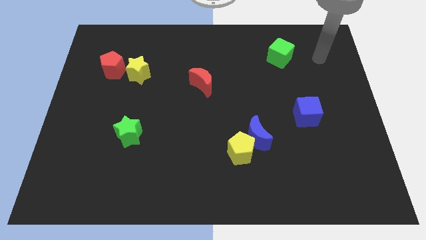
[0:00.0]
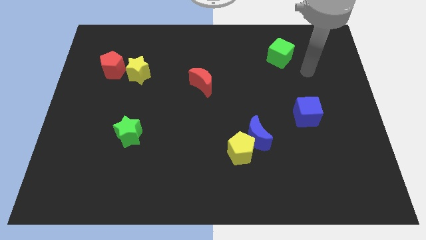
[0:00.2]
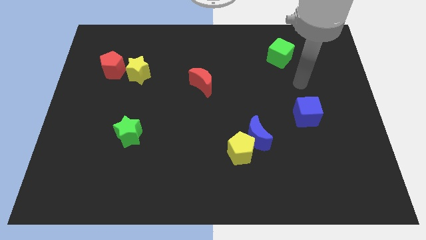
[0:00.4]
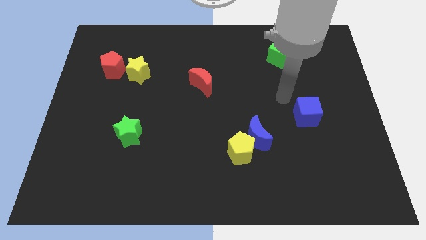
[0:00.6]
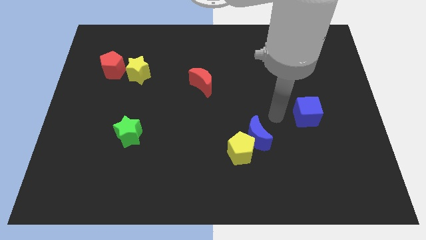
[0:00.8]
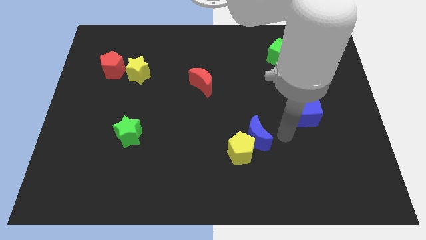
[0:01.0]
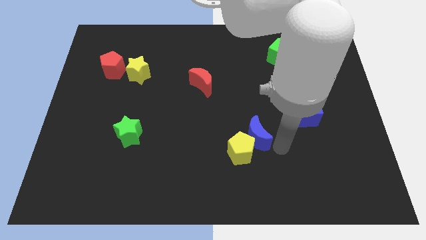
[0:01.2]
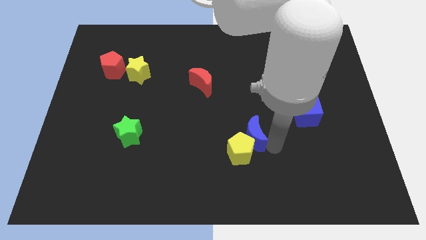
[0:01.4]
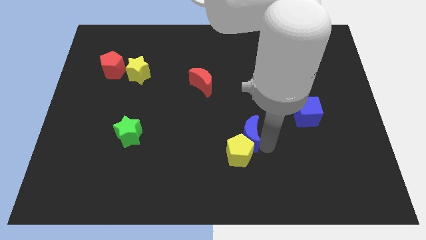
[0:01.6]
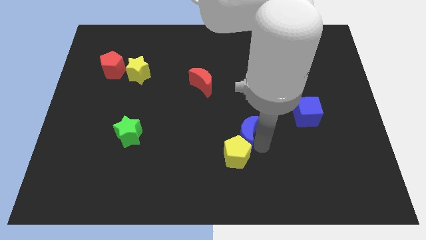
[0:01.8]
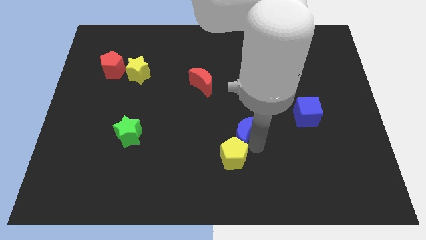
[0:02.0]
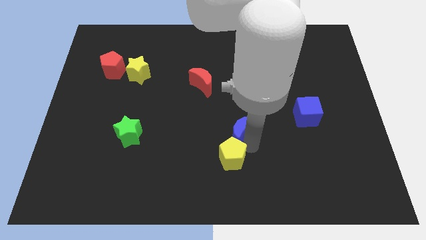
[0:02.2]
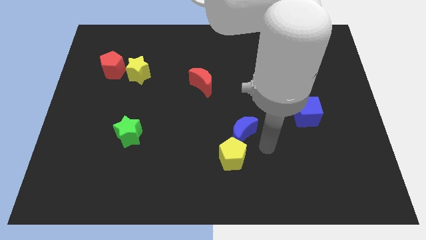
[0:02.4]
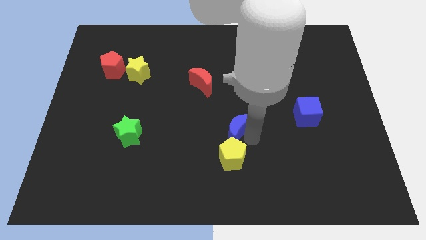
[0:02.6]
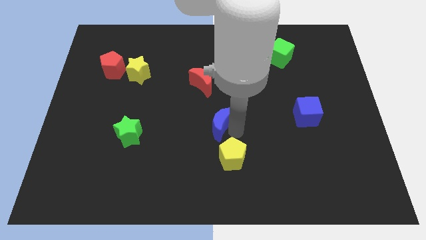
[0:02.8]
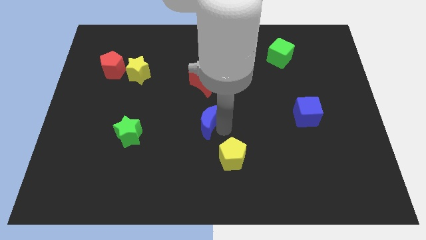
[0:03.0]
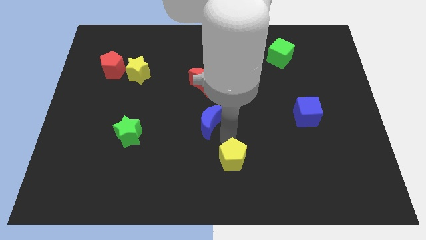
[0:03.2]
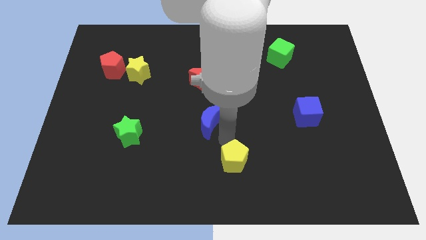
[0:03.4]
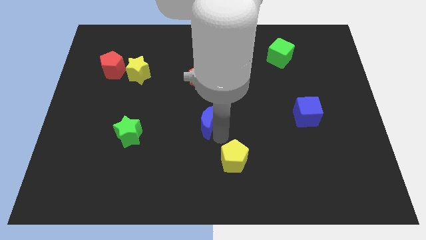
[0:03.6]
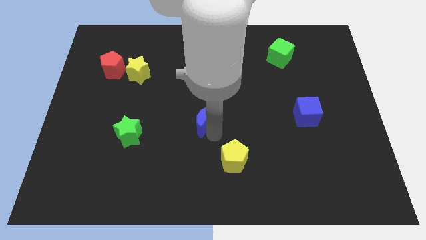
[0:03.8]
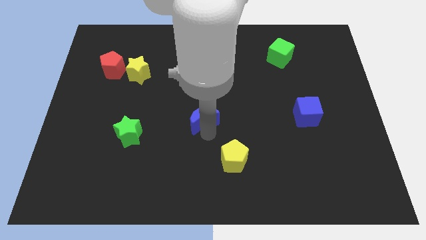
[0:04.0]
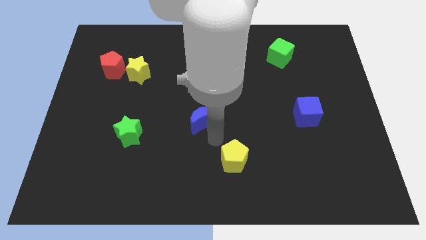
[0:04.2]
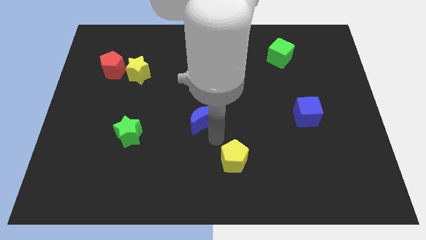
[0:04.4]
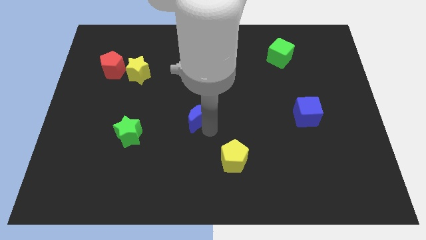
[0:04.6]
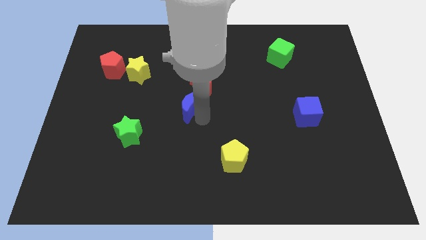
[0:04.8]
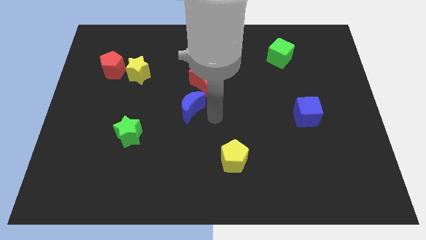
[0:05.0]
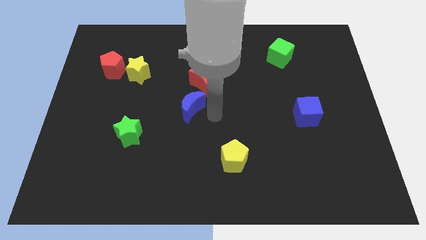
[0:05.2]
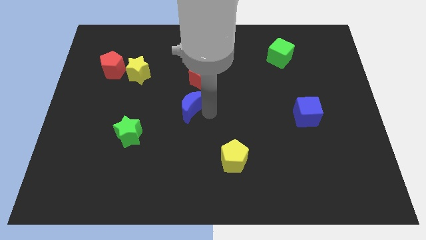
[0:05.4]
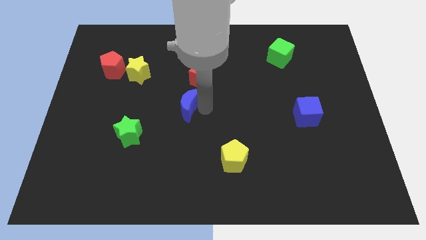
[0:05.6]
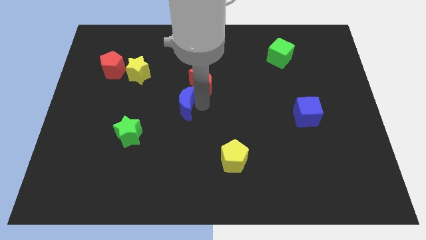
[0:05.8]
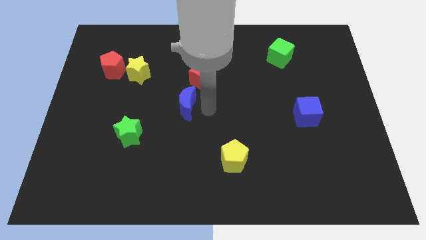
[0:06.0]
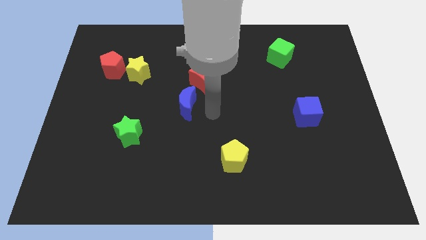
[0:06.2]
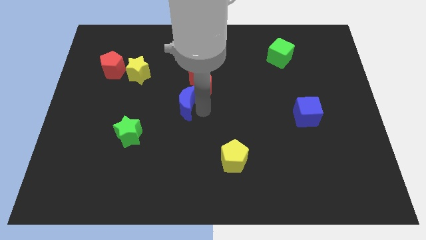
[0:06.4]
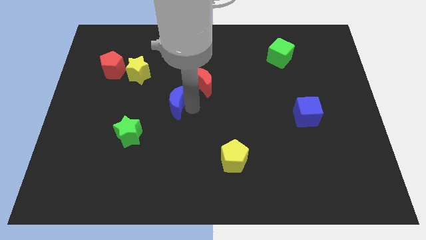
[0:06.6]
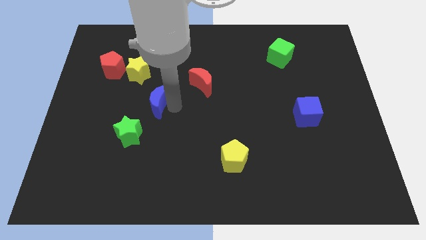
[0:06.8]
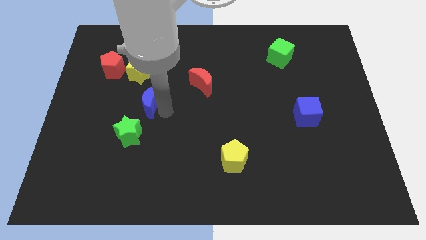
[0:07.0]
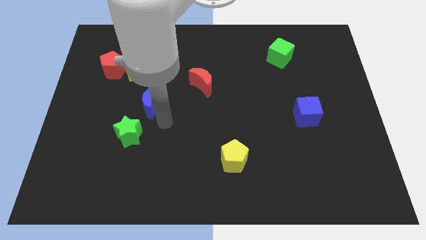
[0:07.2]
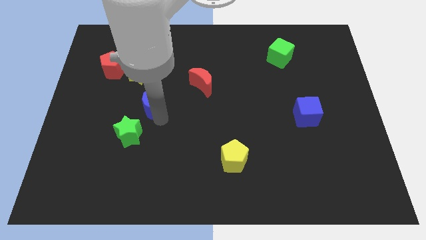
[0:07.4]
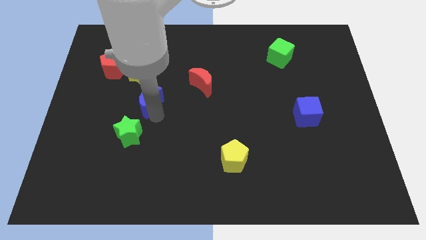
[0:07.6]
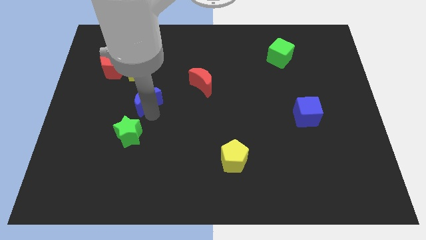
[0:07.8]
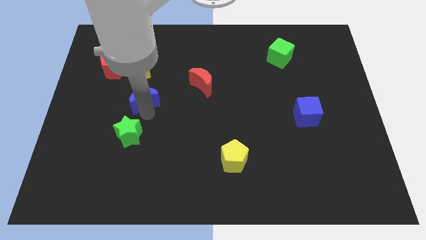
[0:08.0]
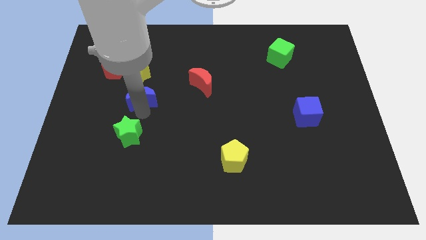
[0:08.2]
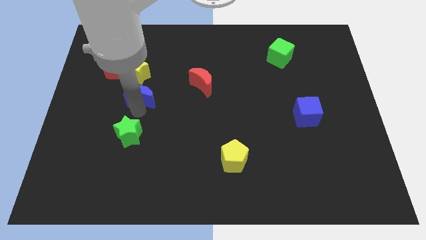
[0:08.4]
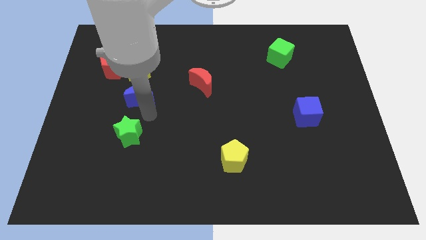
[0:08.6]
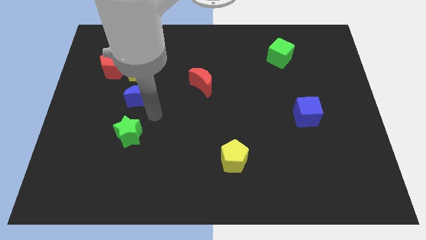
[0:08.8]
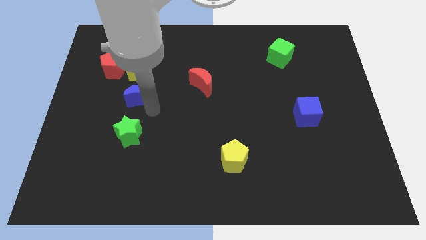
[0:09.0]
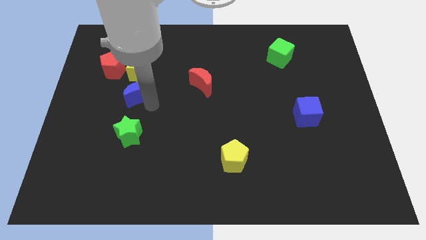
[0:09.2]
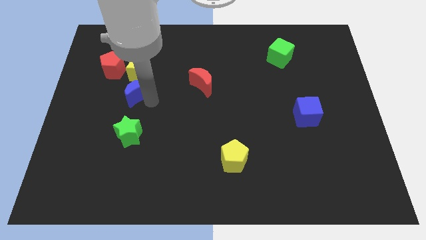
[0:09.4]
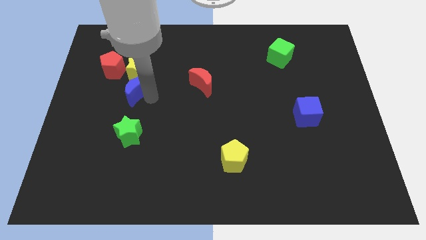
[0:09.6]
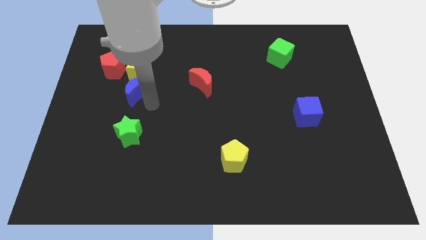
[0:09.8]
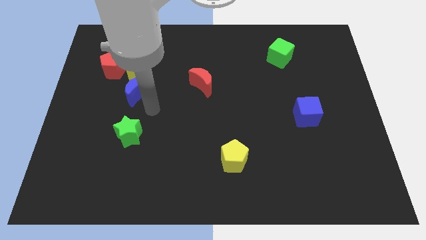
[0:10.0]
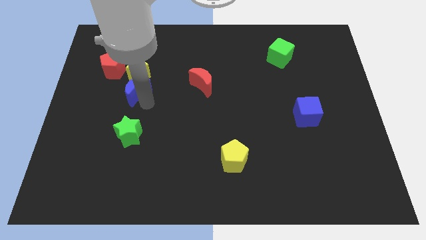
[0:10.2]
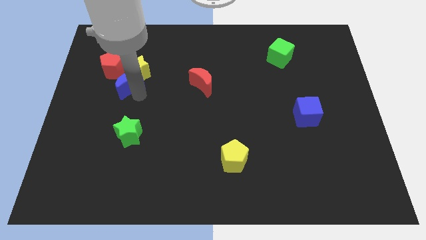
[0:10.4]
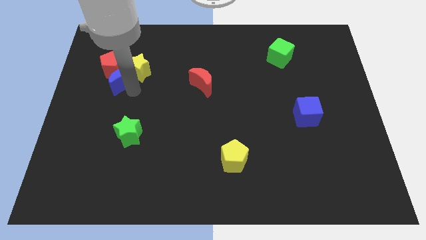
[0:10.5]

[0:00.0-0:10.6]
put the blue moon to the red pentagon

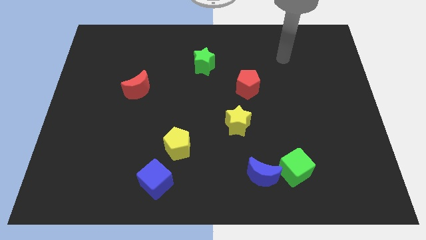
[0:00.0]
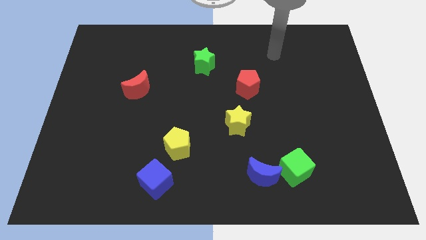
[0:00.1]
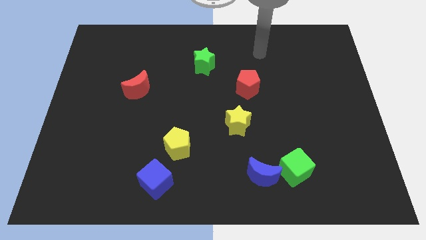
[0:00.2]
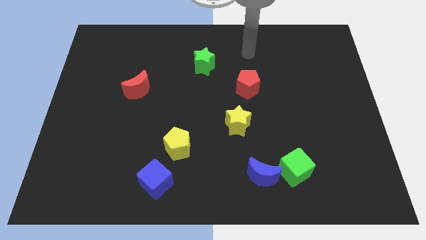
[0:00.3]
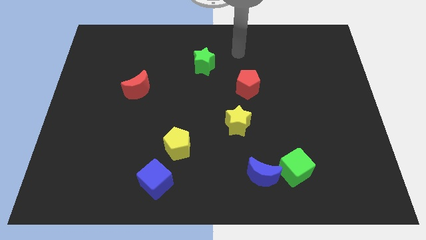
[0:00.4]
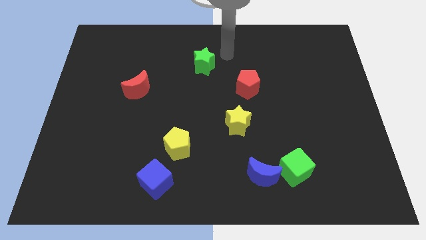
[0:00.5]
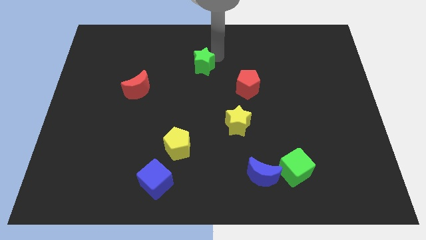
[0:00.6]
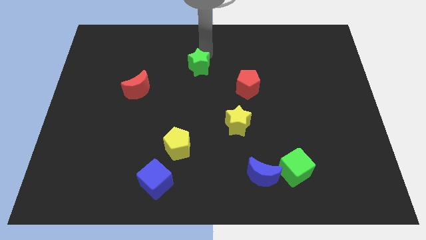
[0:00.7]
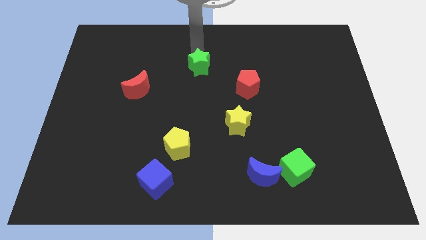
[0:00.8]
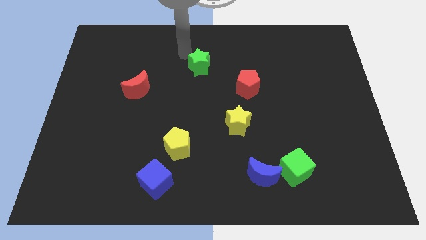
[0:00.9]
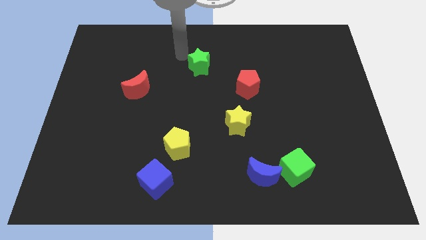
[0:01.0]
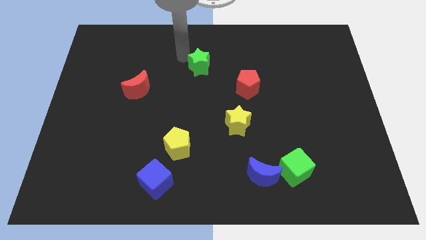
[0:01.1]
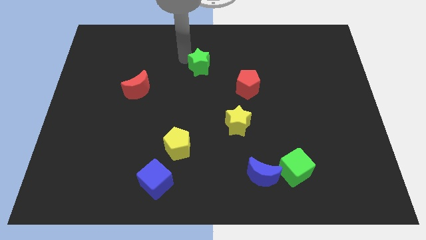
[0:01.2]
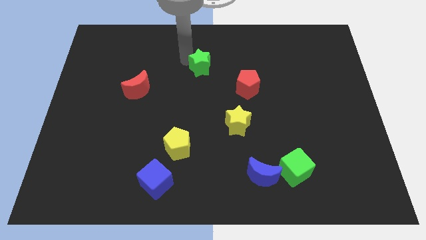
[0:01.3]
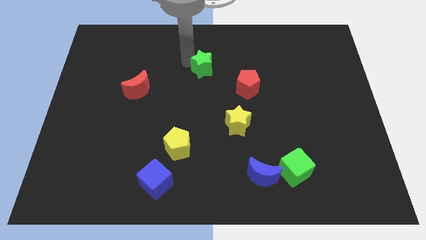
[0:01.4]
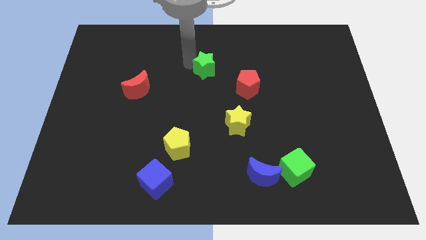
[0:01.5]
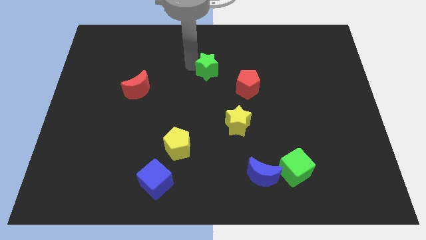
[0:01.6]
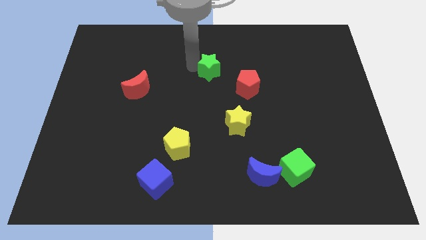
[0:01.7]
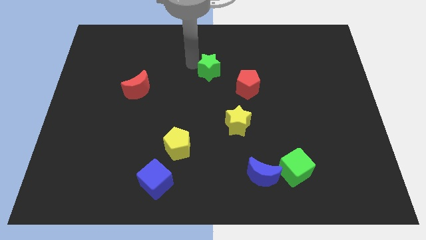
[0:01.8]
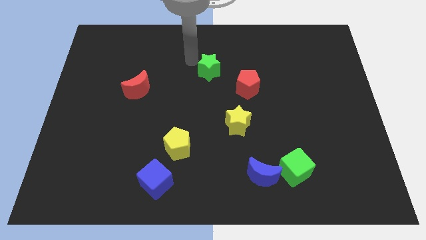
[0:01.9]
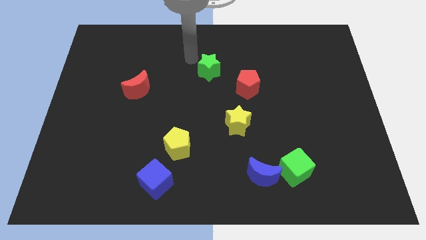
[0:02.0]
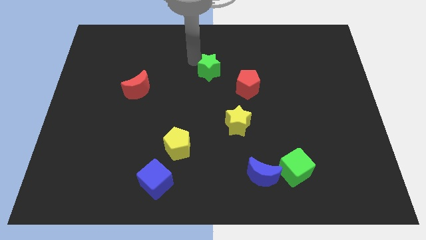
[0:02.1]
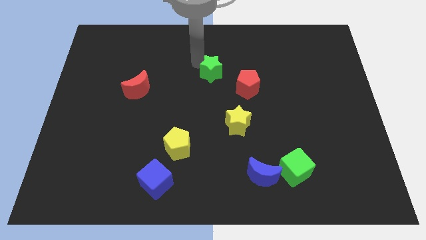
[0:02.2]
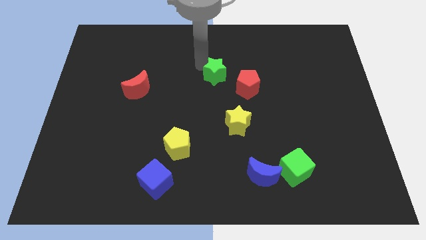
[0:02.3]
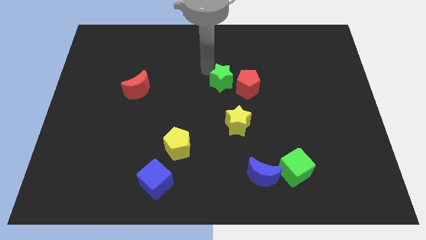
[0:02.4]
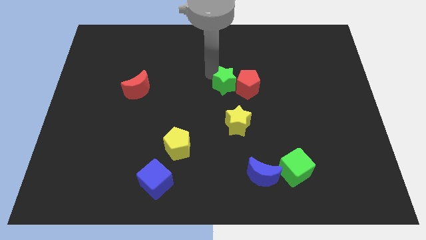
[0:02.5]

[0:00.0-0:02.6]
push the green star towards the red pentagon
